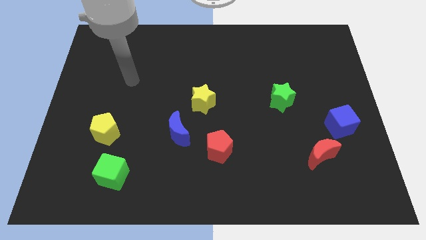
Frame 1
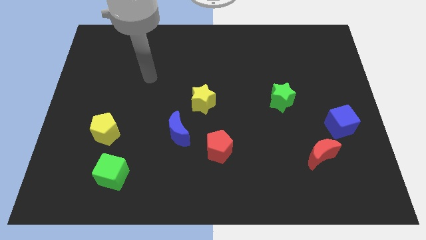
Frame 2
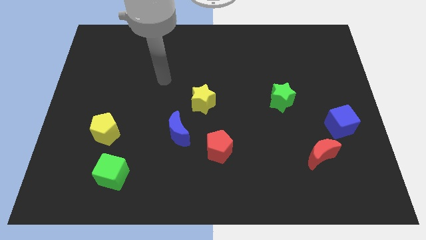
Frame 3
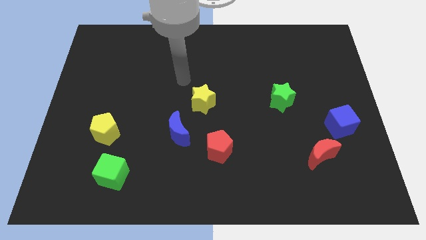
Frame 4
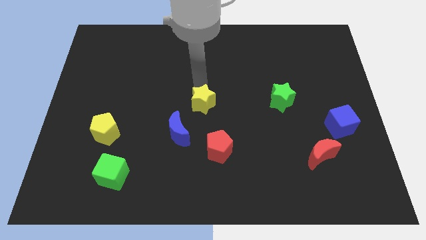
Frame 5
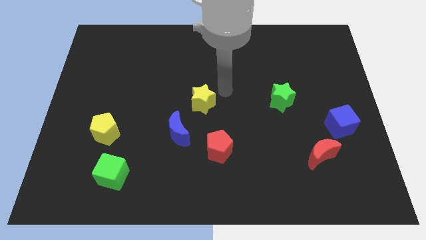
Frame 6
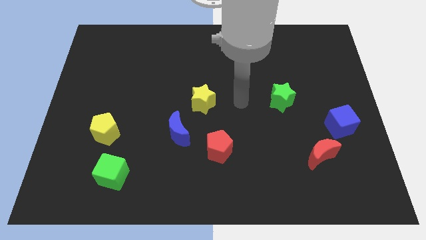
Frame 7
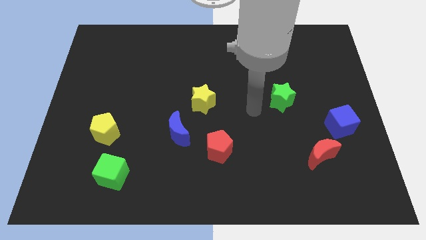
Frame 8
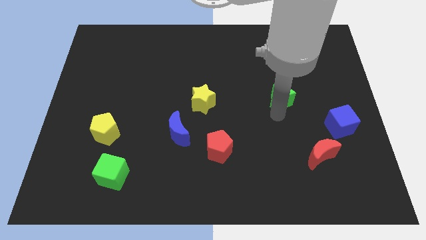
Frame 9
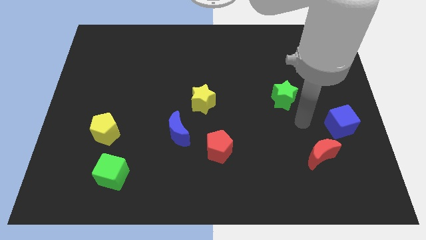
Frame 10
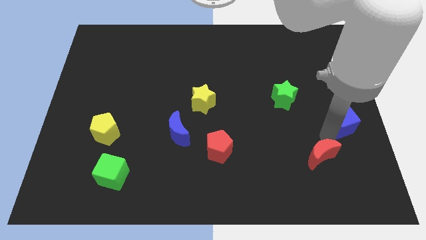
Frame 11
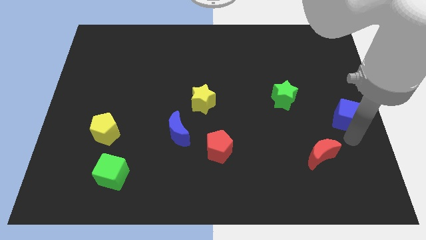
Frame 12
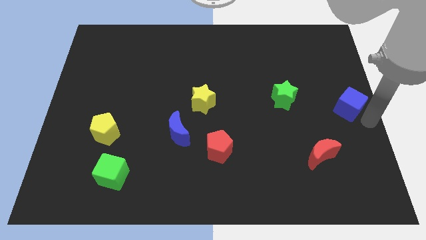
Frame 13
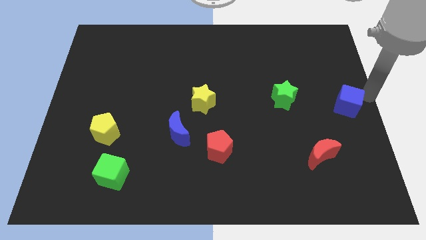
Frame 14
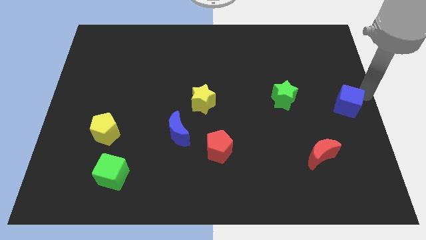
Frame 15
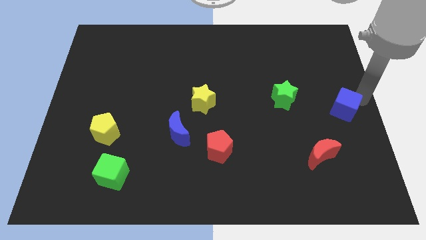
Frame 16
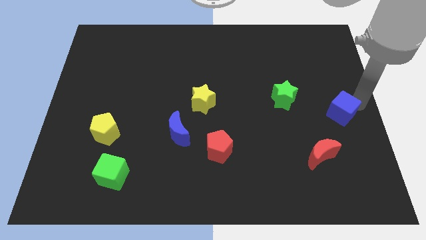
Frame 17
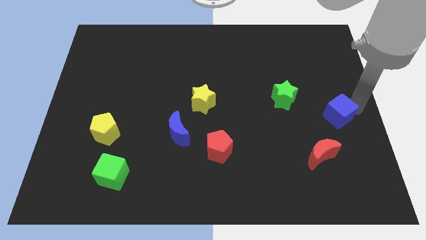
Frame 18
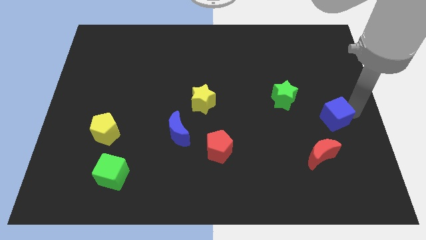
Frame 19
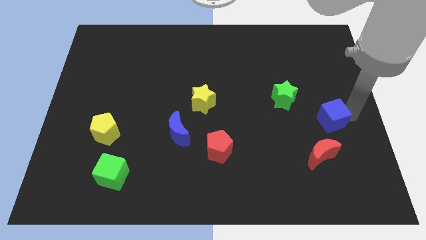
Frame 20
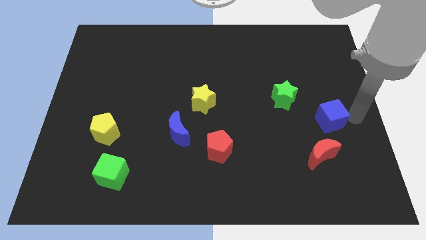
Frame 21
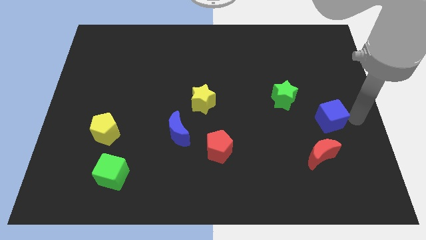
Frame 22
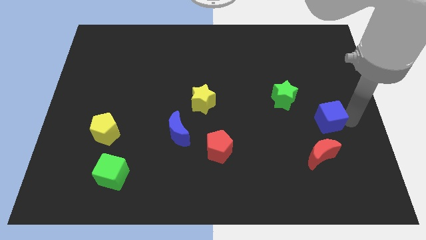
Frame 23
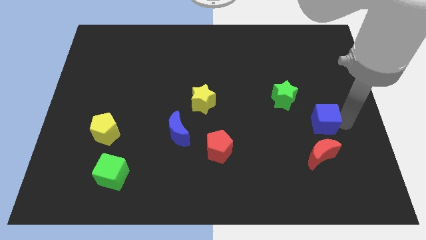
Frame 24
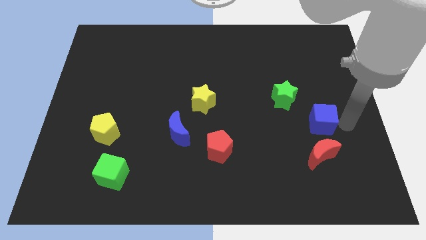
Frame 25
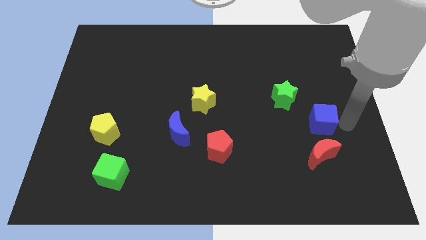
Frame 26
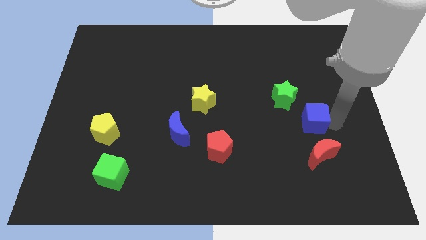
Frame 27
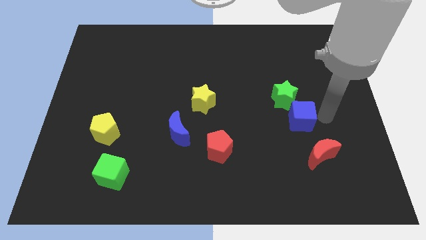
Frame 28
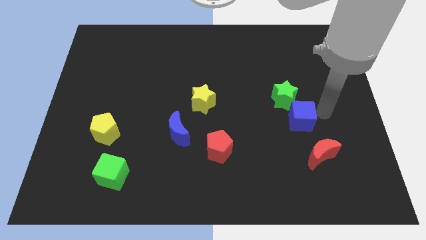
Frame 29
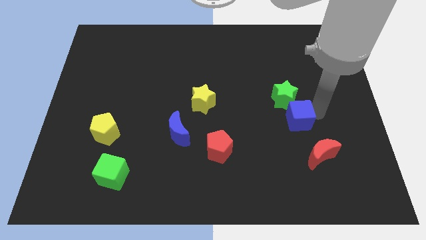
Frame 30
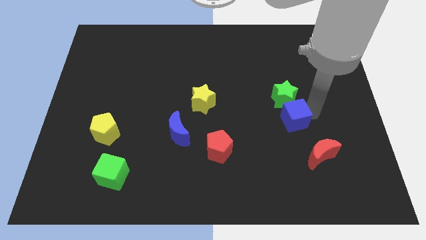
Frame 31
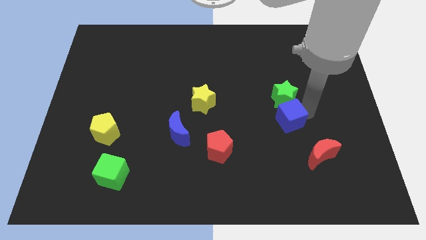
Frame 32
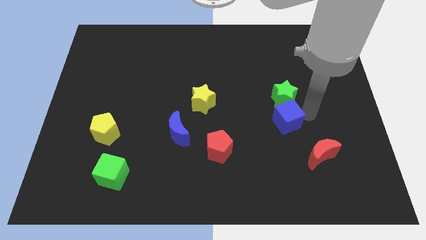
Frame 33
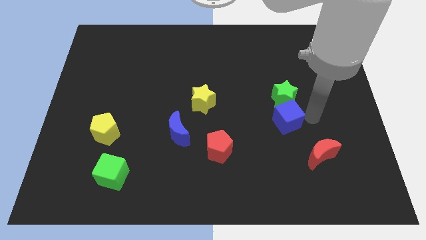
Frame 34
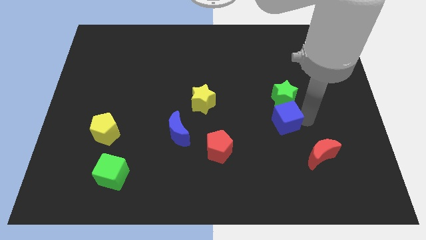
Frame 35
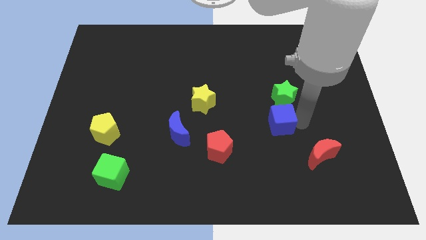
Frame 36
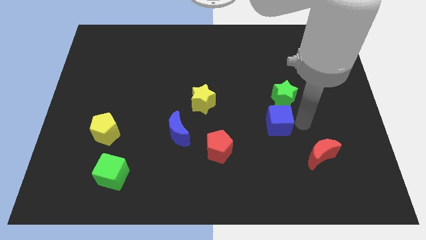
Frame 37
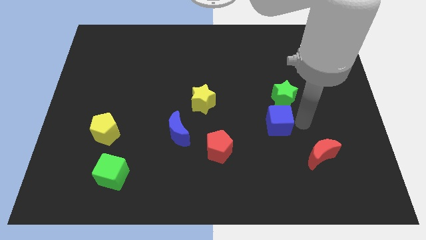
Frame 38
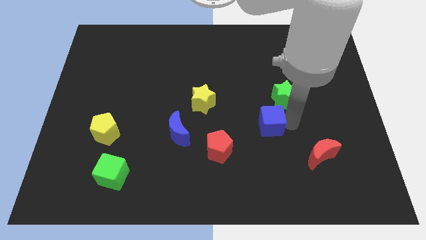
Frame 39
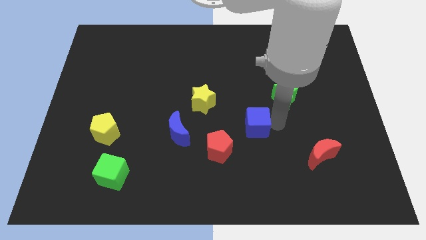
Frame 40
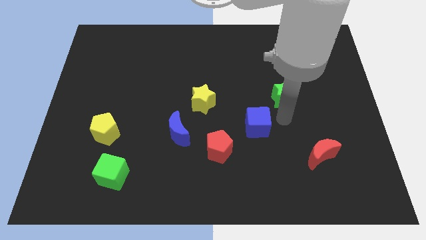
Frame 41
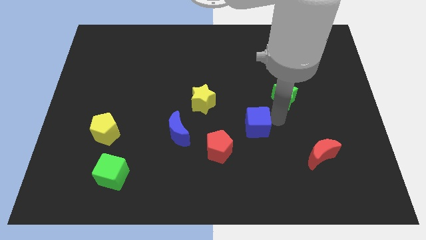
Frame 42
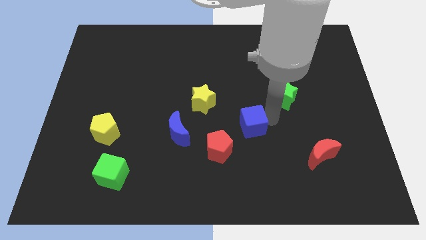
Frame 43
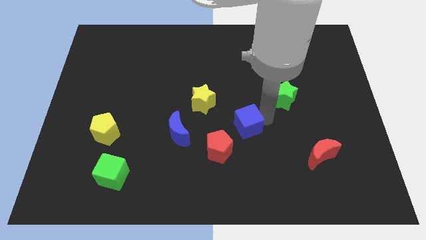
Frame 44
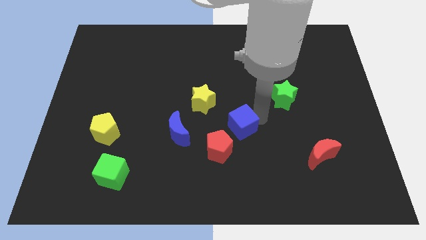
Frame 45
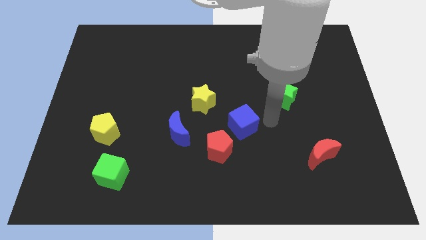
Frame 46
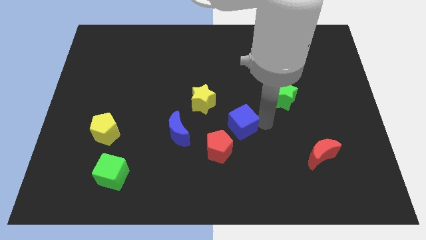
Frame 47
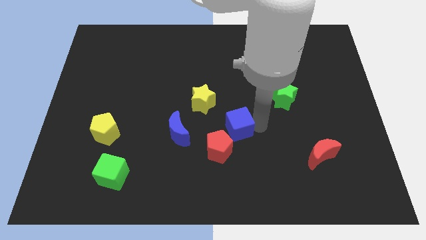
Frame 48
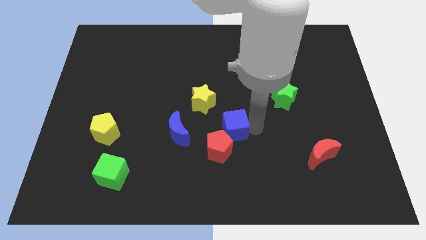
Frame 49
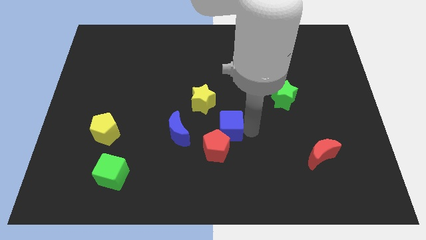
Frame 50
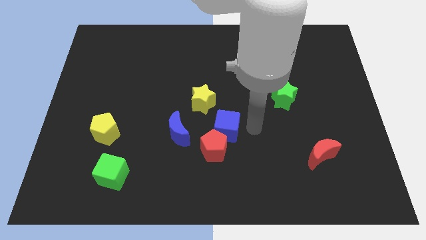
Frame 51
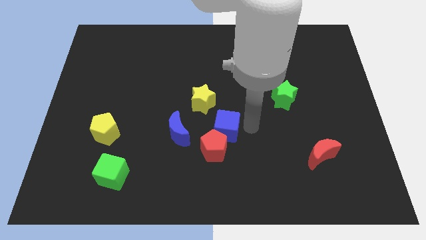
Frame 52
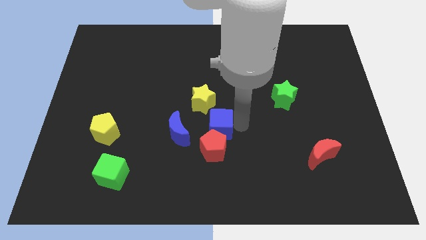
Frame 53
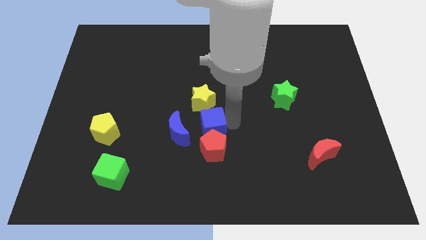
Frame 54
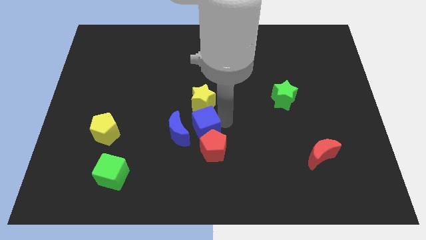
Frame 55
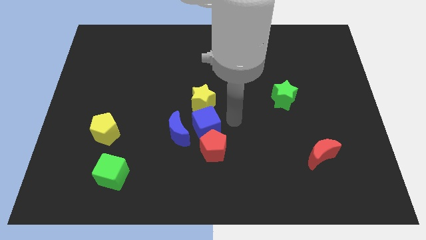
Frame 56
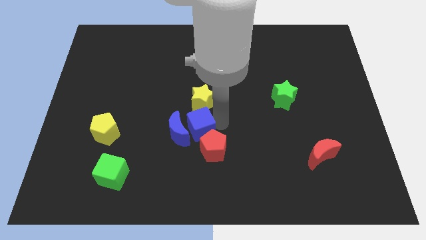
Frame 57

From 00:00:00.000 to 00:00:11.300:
move the blue cube close to the blue moon

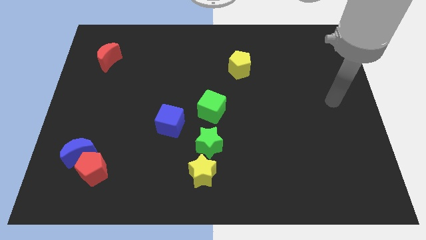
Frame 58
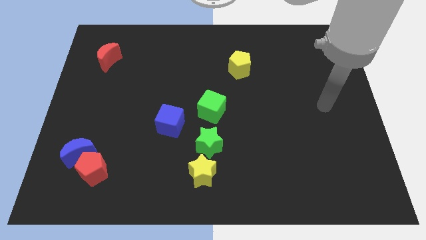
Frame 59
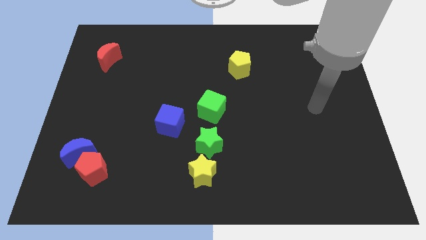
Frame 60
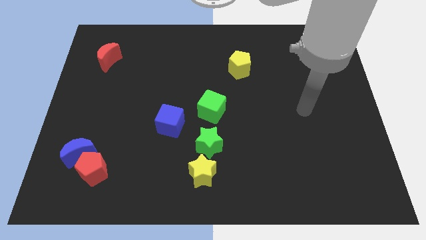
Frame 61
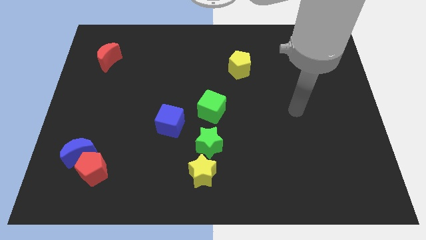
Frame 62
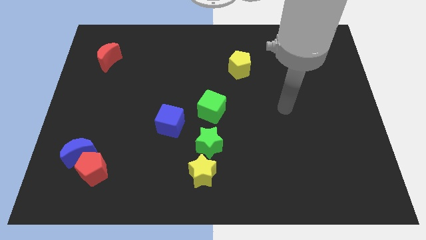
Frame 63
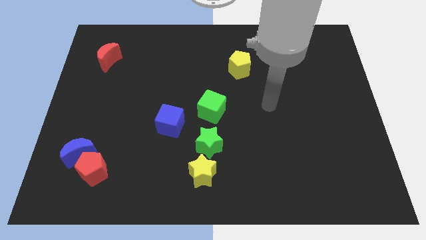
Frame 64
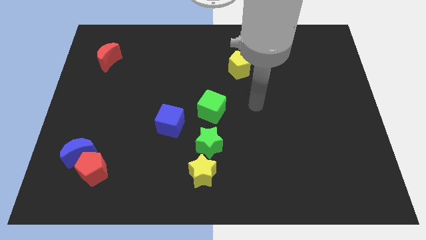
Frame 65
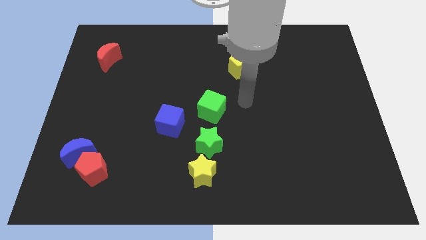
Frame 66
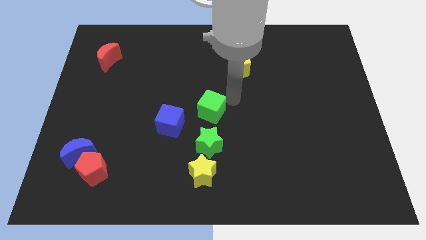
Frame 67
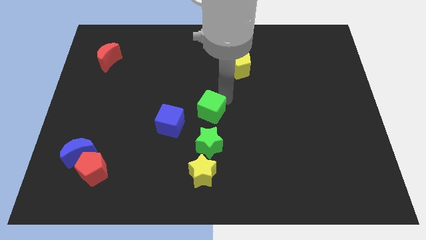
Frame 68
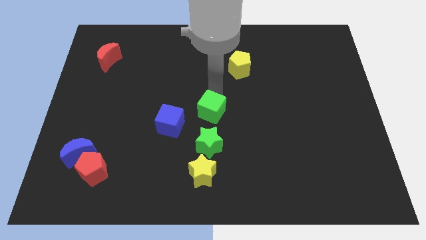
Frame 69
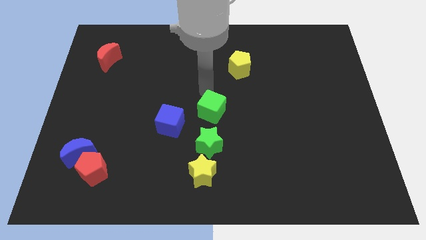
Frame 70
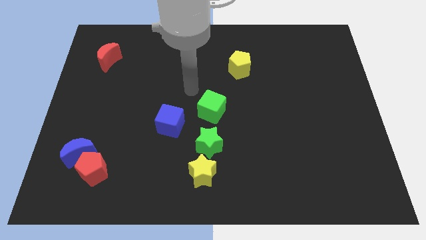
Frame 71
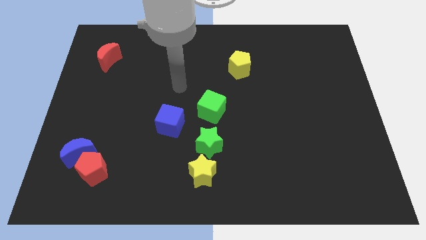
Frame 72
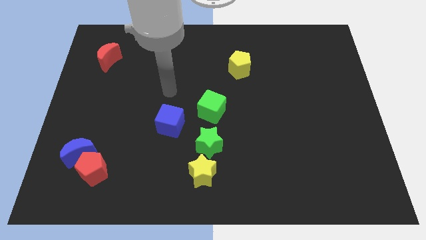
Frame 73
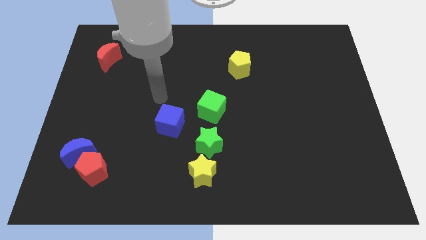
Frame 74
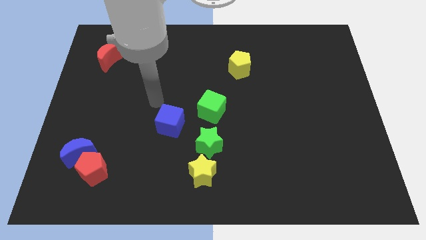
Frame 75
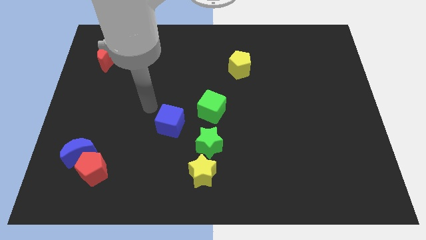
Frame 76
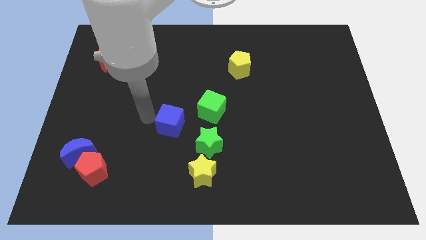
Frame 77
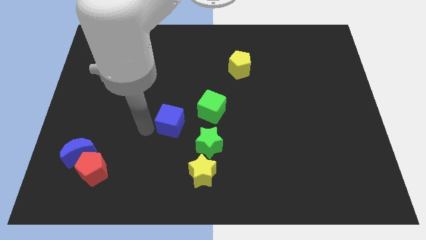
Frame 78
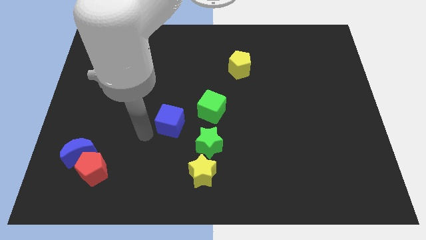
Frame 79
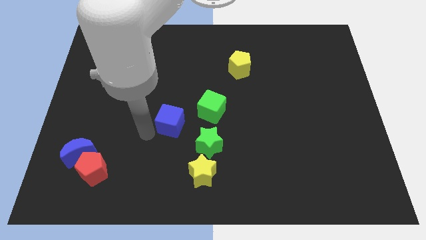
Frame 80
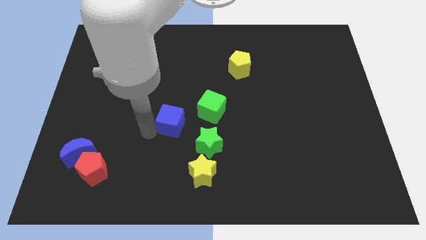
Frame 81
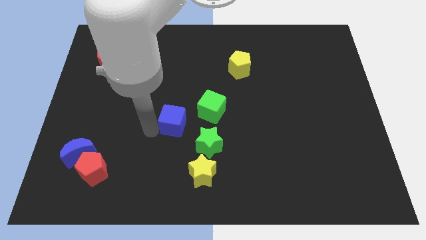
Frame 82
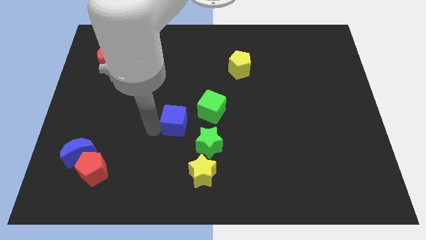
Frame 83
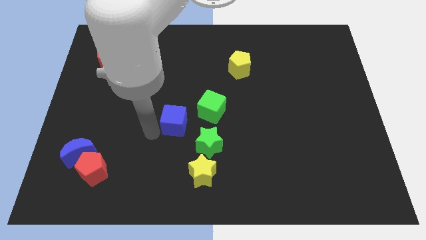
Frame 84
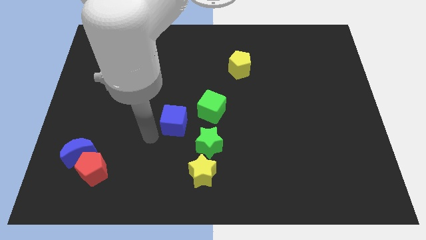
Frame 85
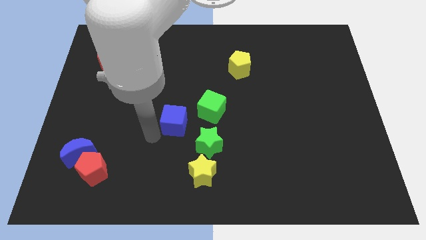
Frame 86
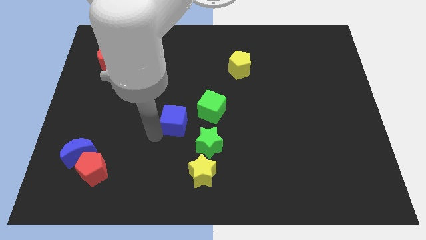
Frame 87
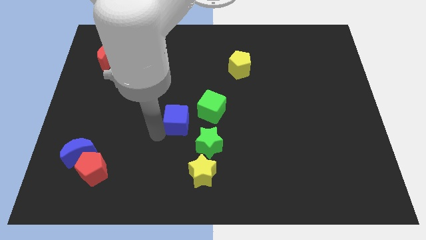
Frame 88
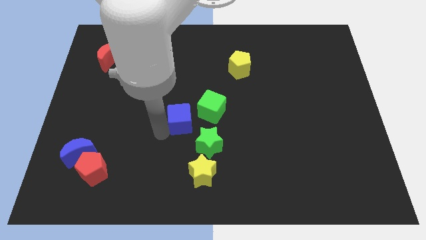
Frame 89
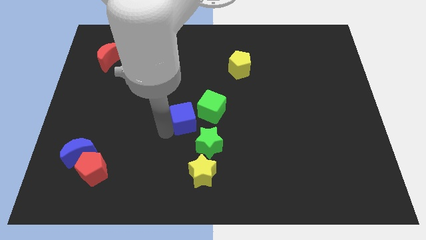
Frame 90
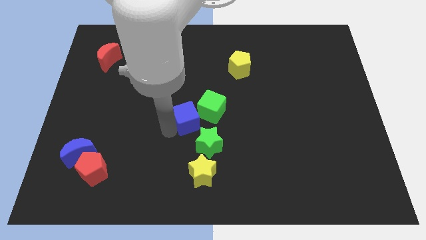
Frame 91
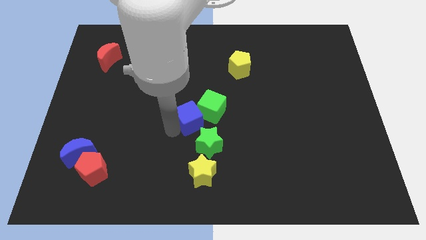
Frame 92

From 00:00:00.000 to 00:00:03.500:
put the blue cube next to the green cube
